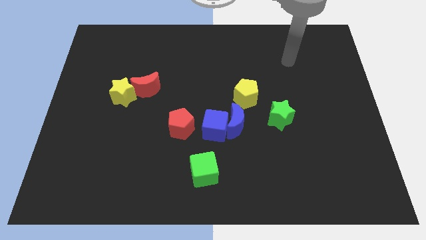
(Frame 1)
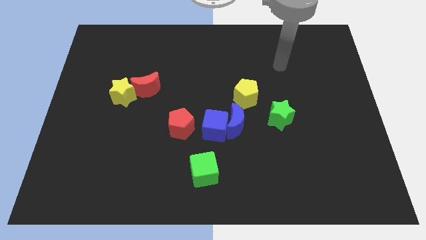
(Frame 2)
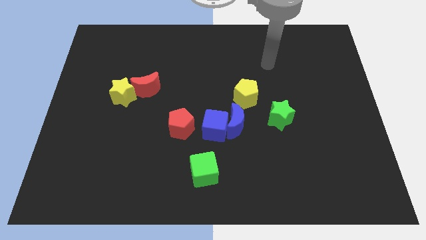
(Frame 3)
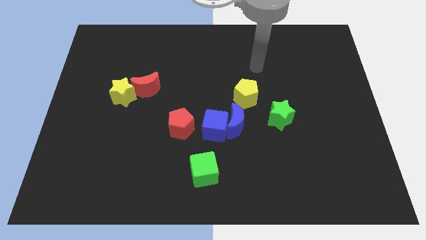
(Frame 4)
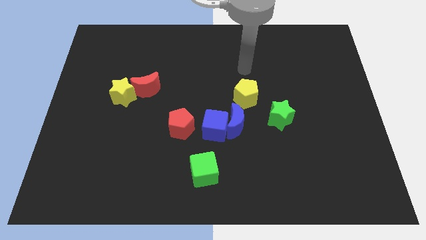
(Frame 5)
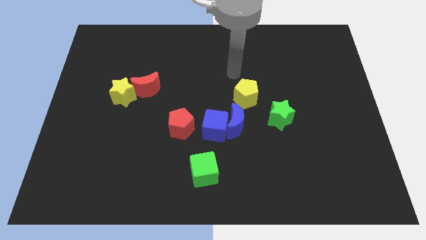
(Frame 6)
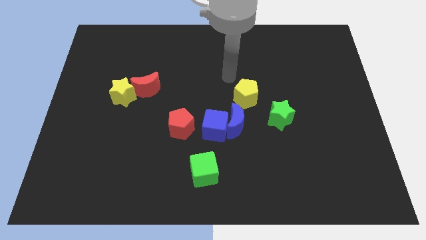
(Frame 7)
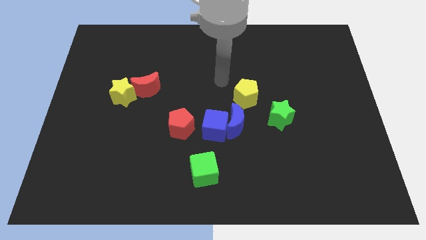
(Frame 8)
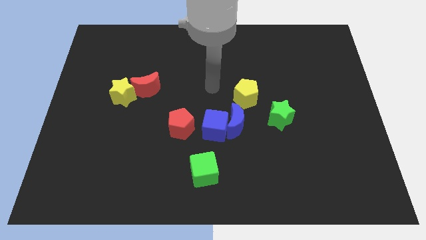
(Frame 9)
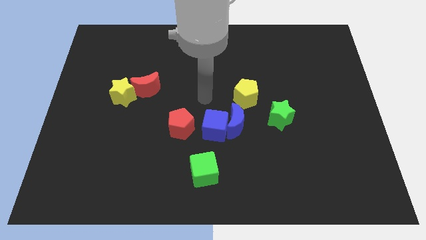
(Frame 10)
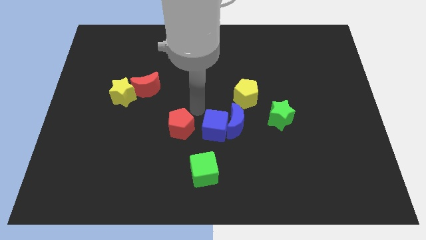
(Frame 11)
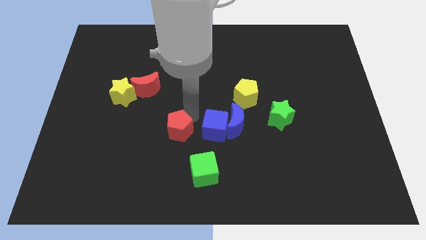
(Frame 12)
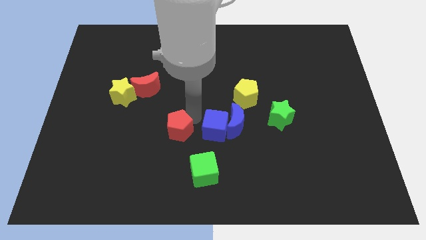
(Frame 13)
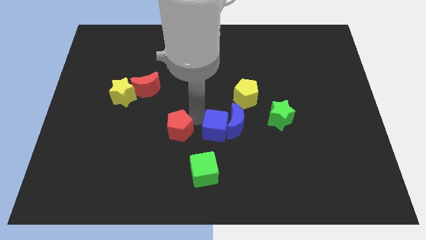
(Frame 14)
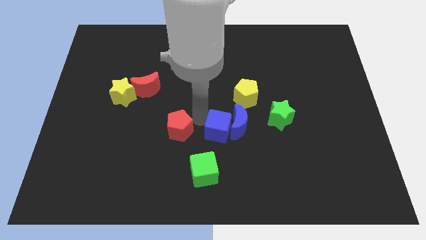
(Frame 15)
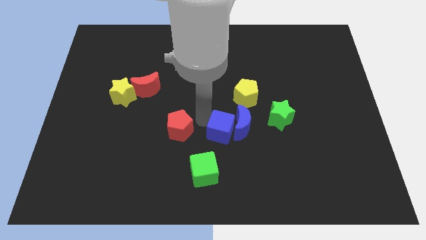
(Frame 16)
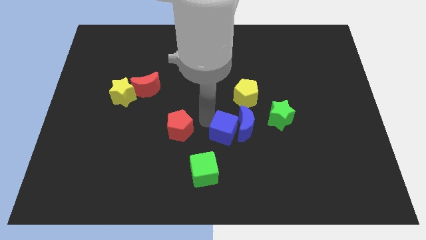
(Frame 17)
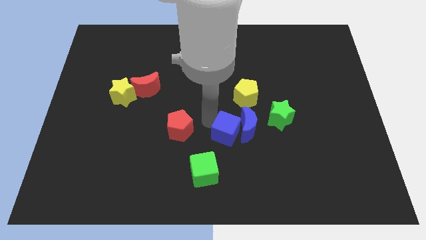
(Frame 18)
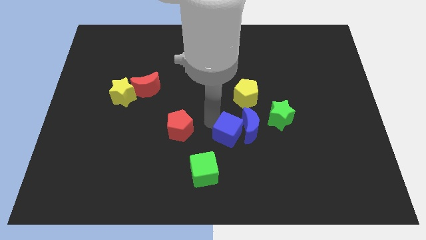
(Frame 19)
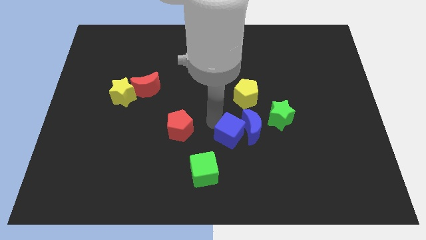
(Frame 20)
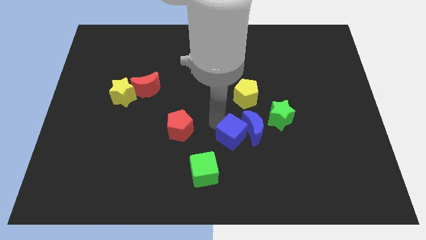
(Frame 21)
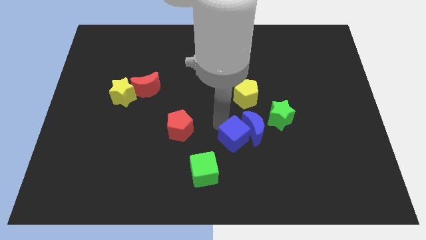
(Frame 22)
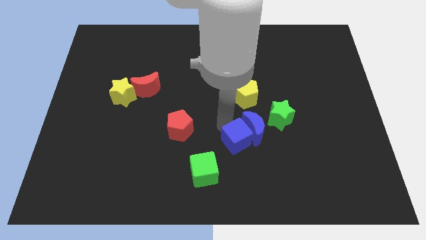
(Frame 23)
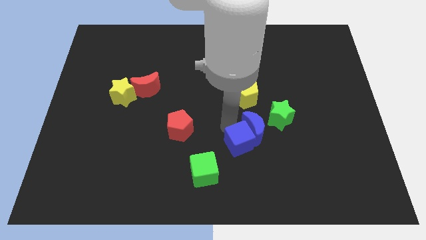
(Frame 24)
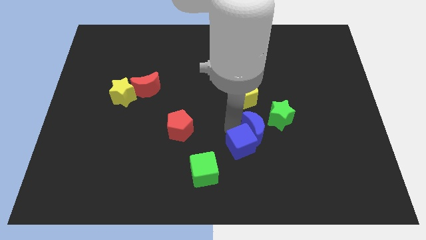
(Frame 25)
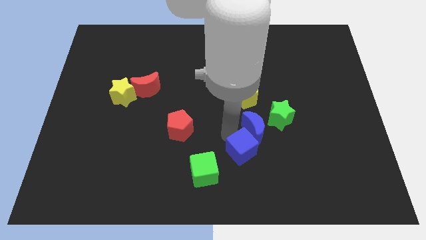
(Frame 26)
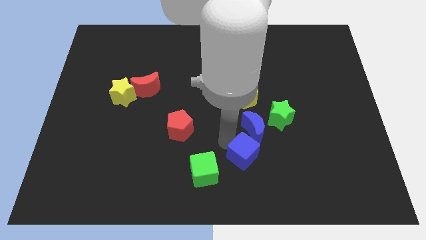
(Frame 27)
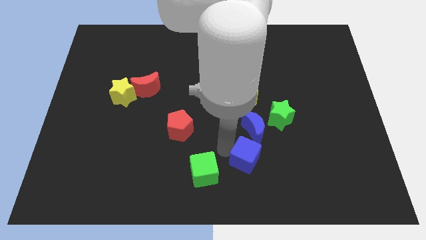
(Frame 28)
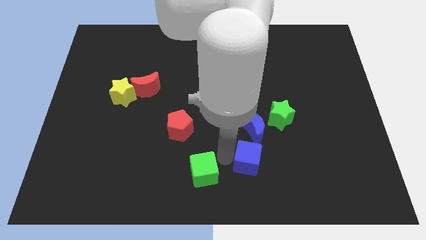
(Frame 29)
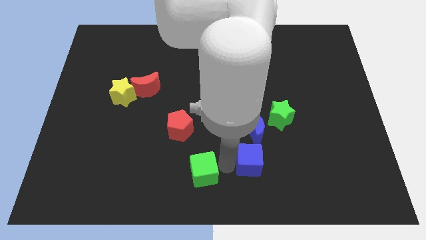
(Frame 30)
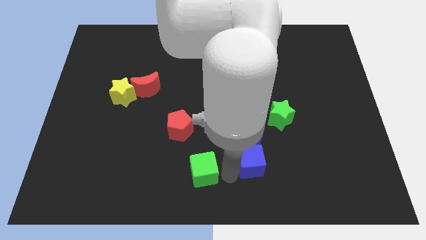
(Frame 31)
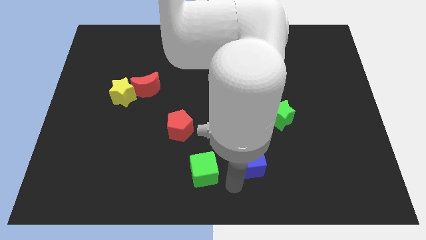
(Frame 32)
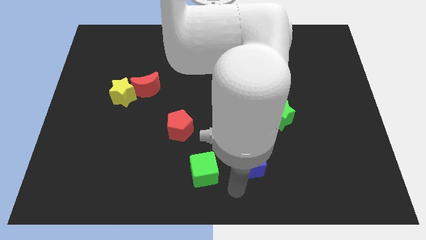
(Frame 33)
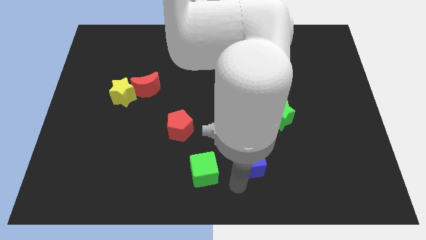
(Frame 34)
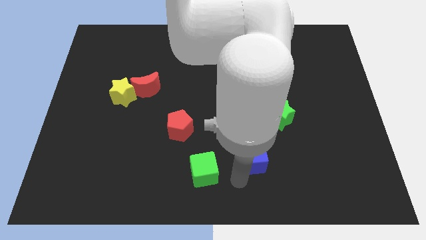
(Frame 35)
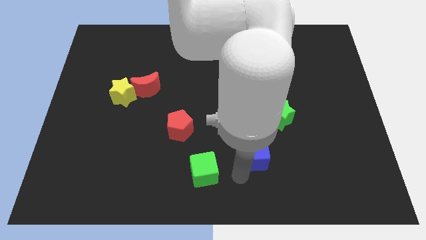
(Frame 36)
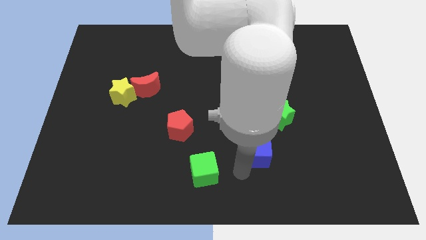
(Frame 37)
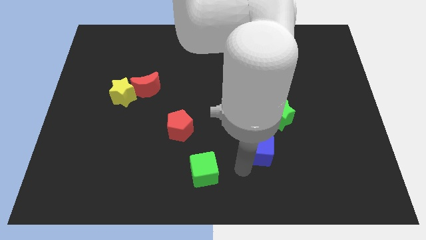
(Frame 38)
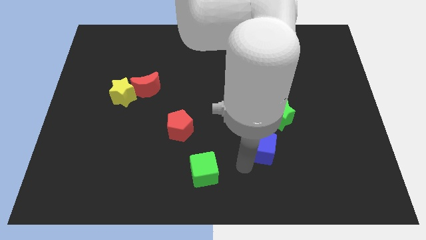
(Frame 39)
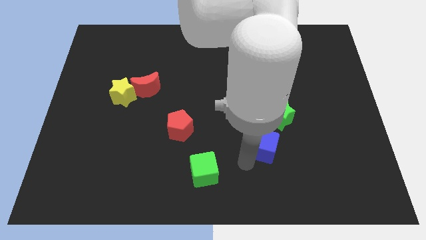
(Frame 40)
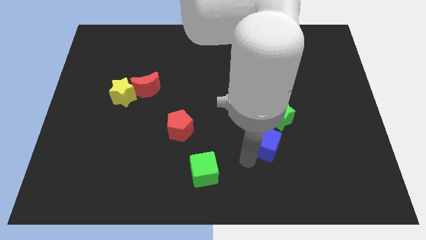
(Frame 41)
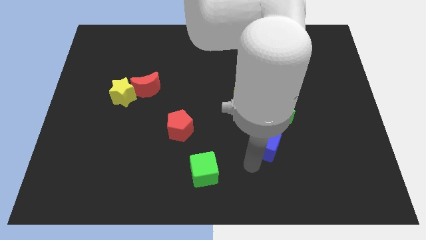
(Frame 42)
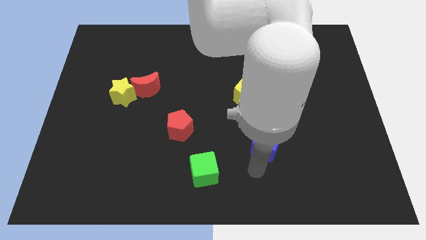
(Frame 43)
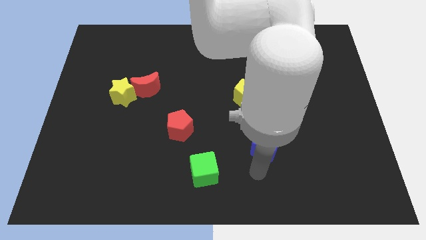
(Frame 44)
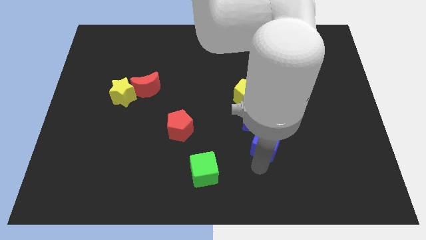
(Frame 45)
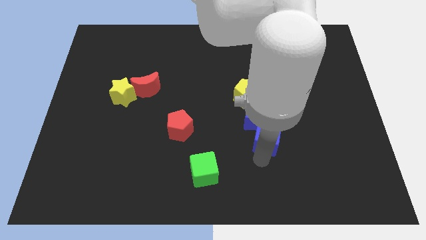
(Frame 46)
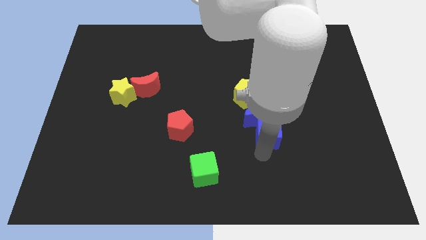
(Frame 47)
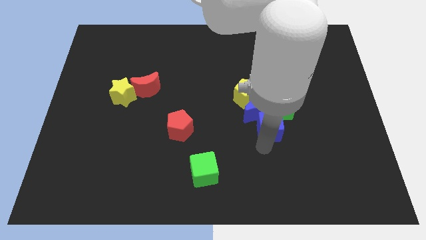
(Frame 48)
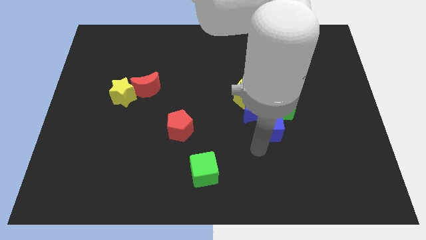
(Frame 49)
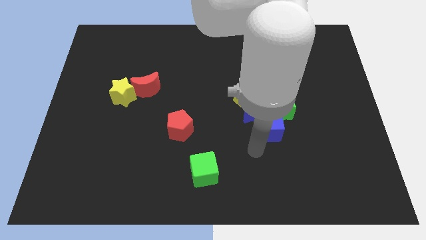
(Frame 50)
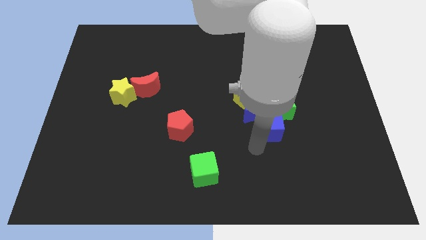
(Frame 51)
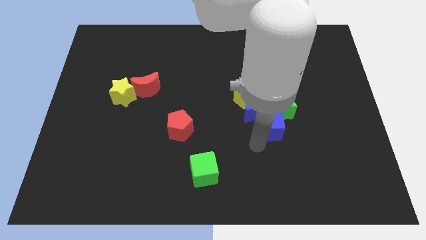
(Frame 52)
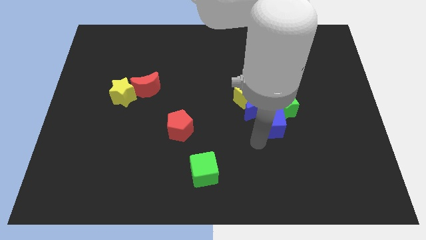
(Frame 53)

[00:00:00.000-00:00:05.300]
move the blue cube to the green star

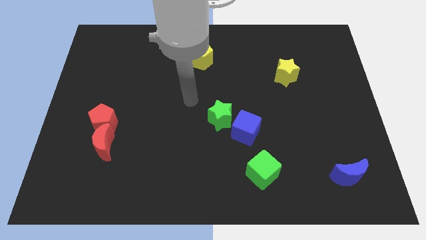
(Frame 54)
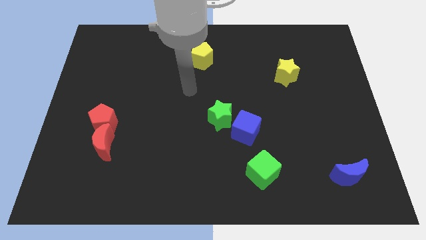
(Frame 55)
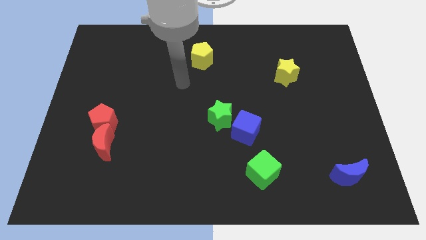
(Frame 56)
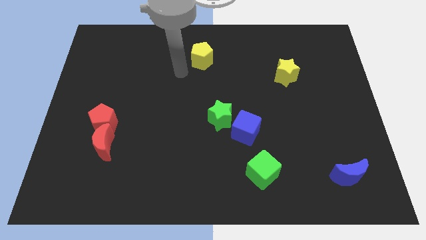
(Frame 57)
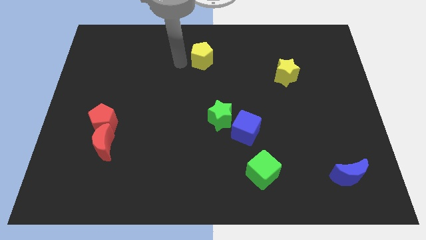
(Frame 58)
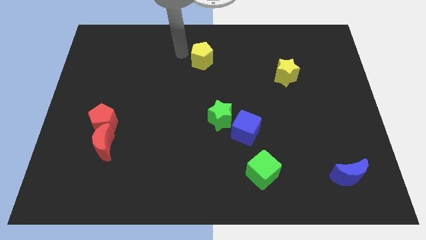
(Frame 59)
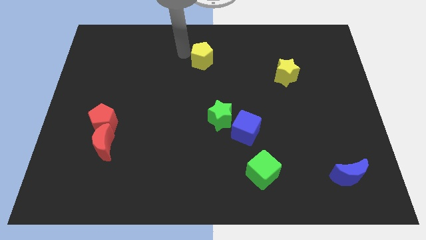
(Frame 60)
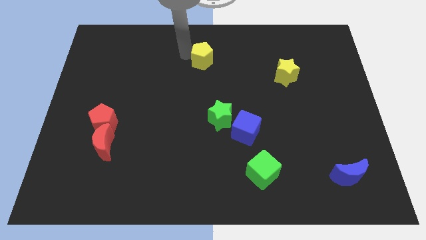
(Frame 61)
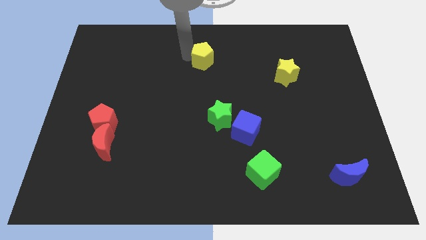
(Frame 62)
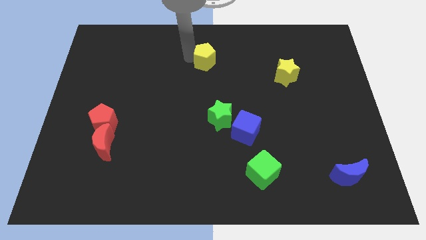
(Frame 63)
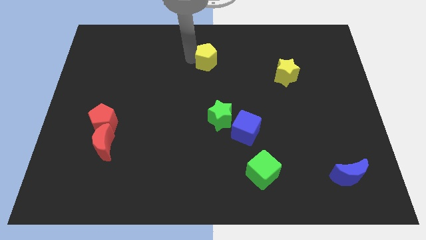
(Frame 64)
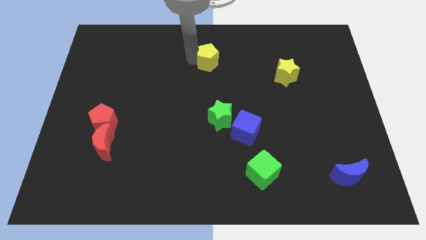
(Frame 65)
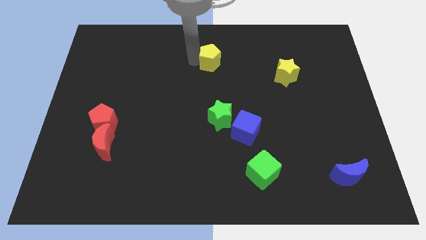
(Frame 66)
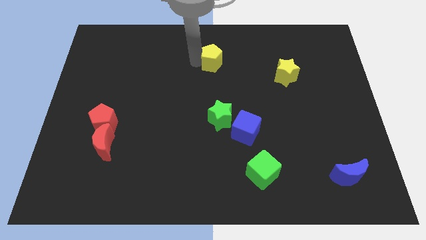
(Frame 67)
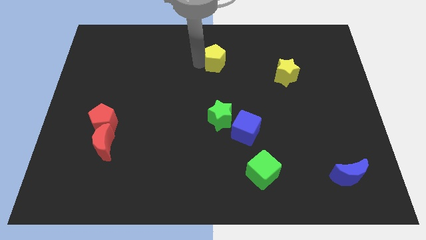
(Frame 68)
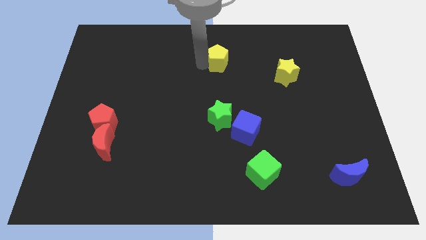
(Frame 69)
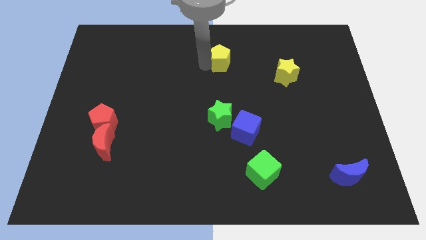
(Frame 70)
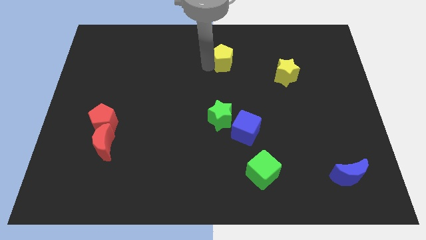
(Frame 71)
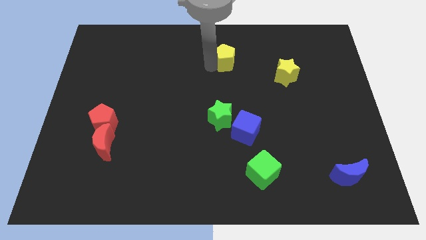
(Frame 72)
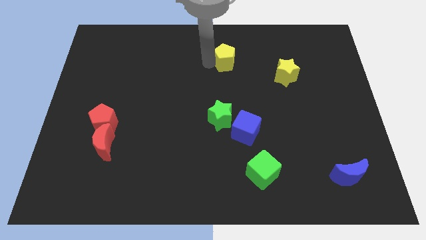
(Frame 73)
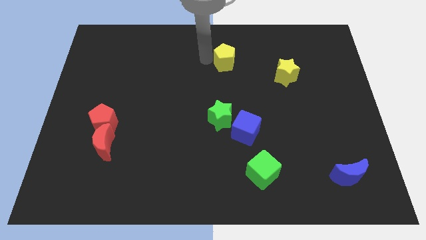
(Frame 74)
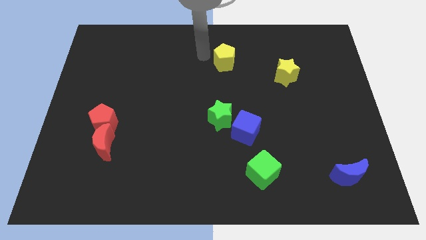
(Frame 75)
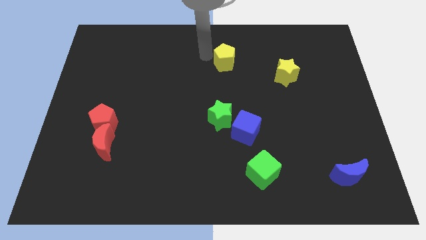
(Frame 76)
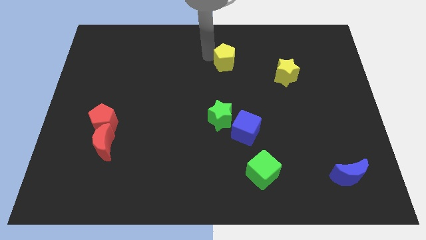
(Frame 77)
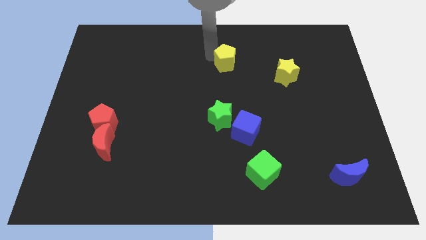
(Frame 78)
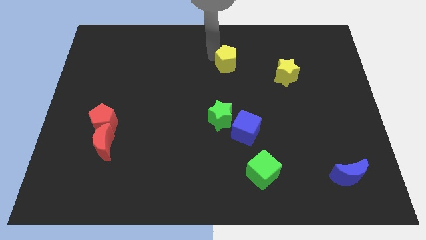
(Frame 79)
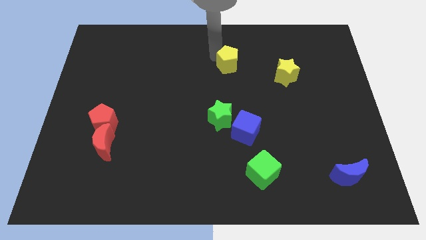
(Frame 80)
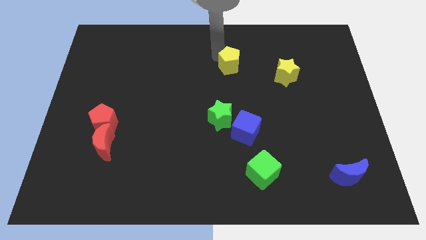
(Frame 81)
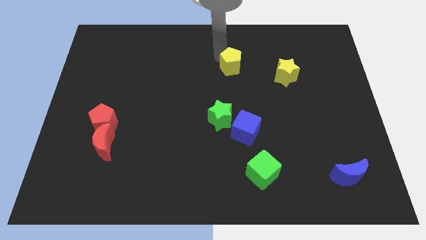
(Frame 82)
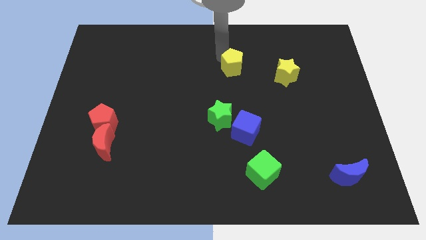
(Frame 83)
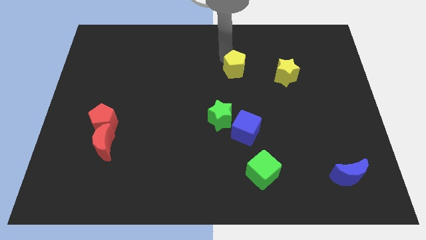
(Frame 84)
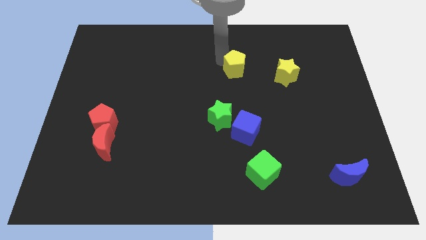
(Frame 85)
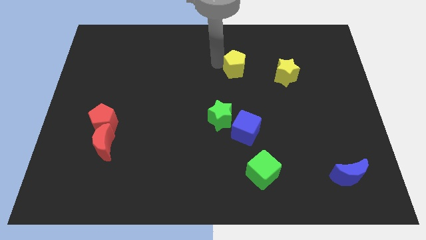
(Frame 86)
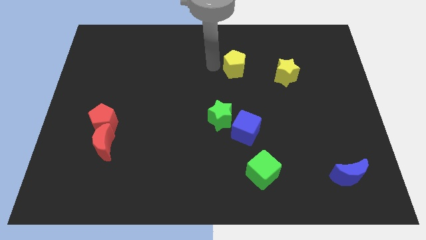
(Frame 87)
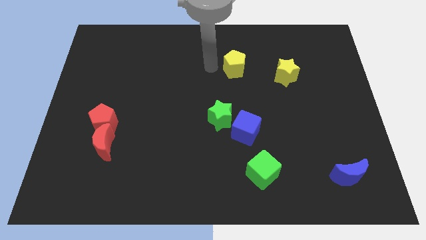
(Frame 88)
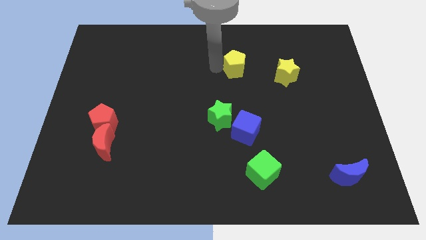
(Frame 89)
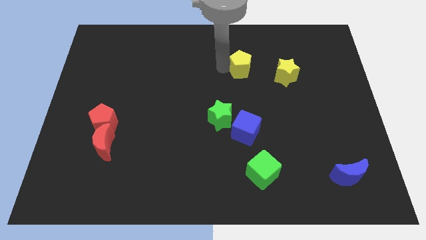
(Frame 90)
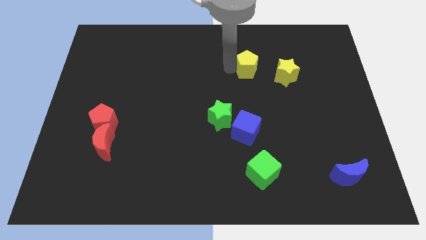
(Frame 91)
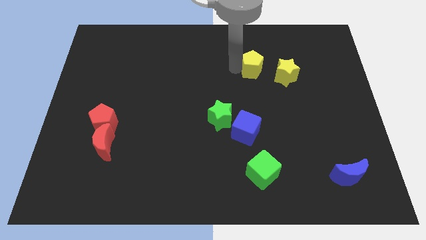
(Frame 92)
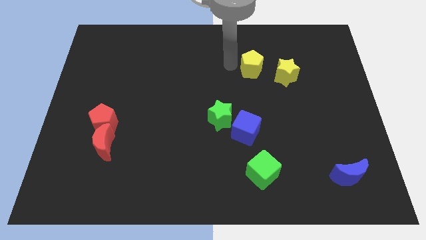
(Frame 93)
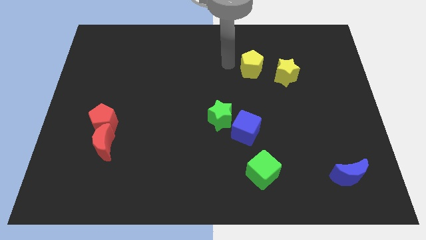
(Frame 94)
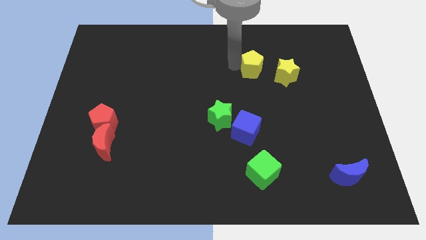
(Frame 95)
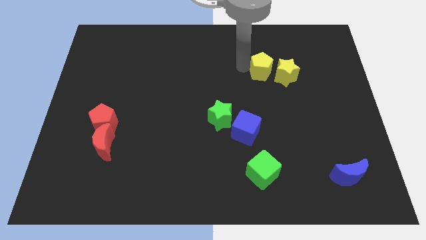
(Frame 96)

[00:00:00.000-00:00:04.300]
move the yellow pentagon to the yellow star
